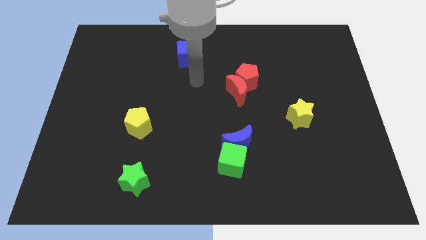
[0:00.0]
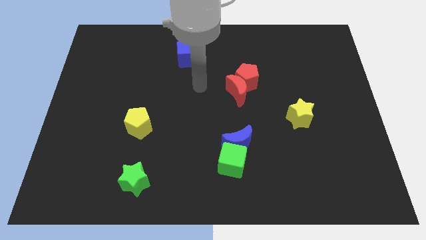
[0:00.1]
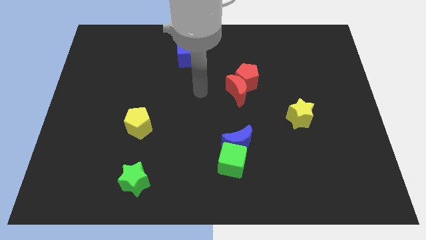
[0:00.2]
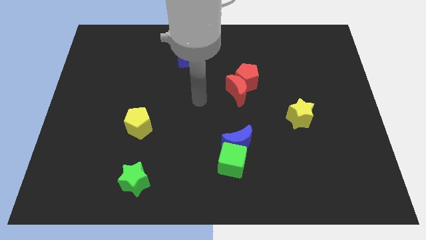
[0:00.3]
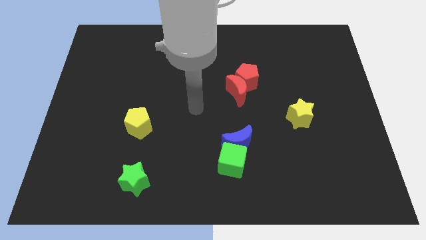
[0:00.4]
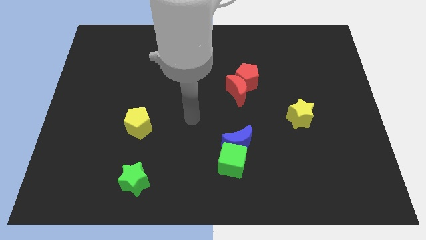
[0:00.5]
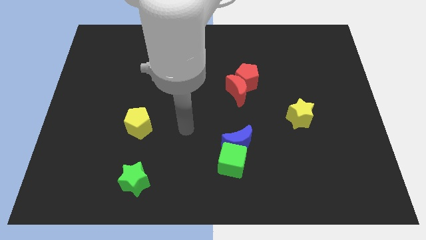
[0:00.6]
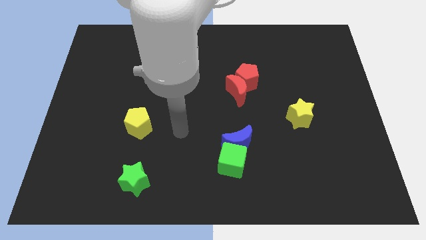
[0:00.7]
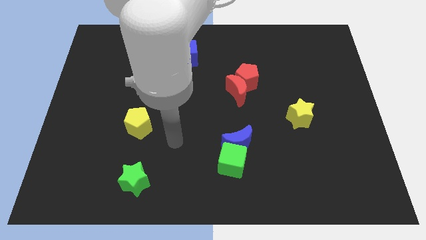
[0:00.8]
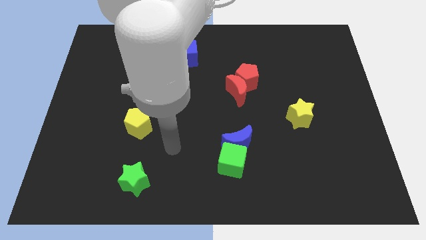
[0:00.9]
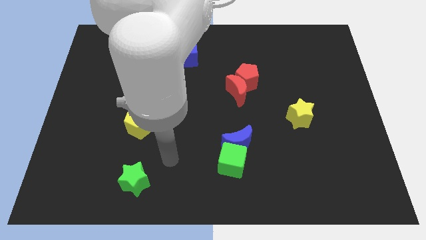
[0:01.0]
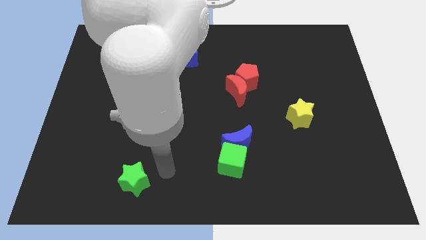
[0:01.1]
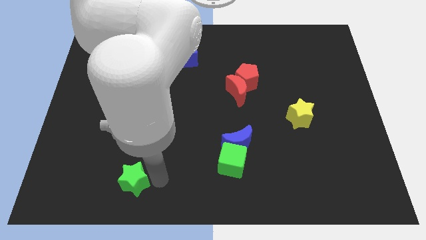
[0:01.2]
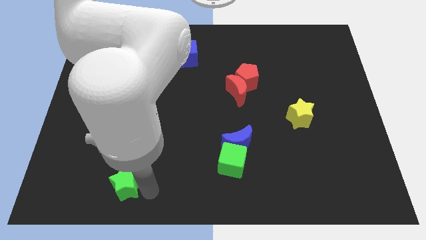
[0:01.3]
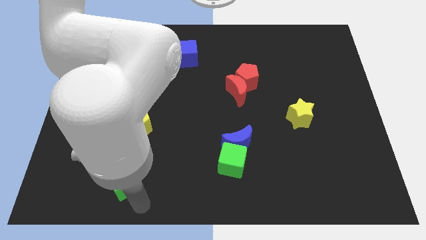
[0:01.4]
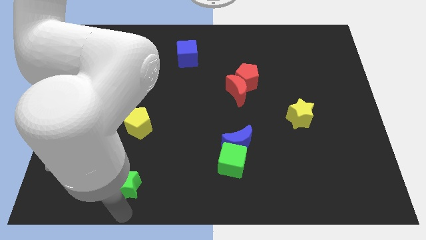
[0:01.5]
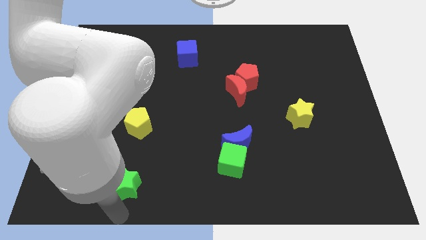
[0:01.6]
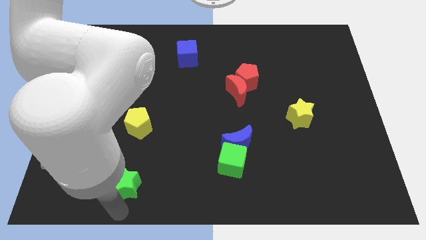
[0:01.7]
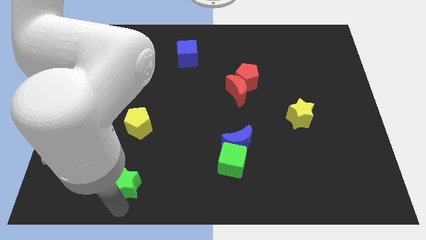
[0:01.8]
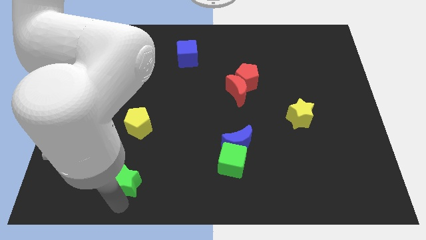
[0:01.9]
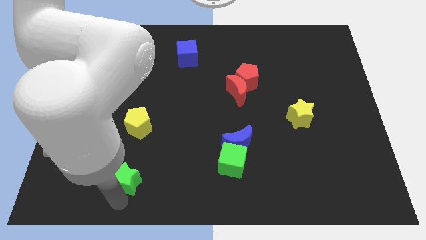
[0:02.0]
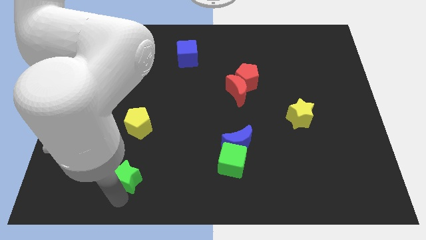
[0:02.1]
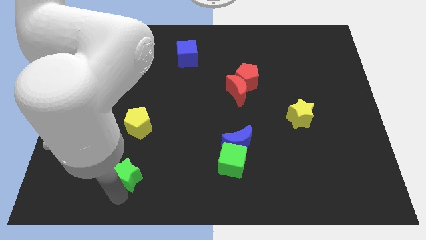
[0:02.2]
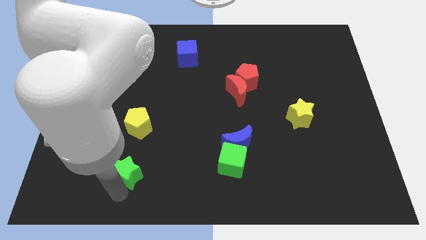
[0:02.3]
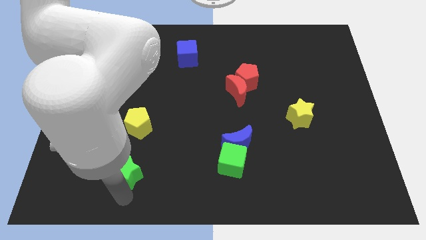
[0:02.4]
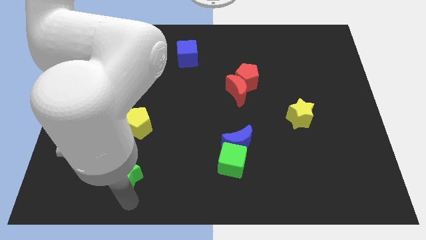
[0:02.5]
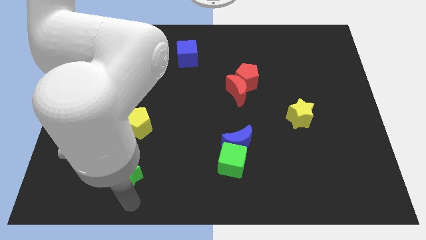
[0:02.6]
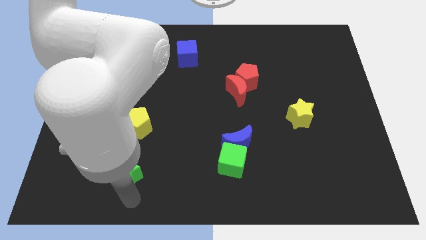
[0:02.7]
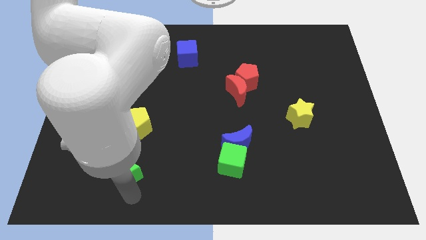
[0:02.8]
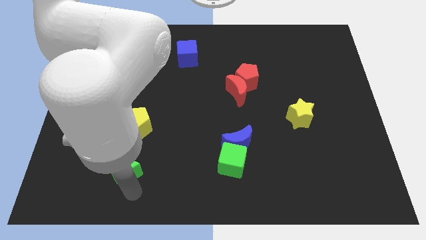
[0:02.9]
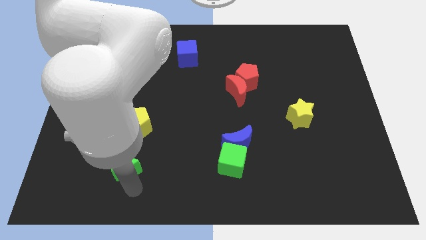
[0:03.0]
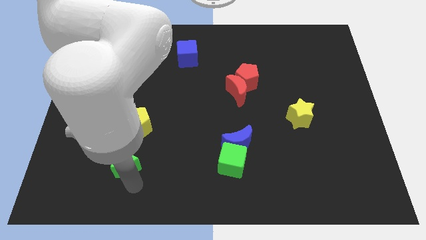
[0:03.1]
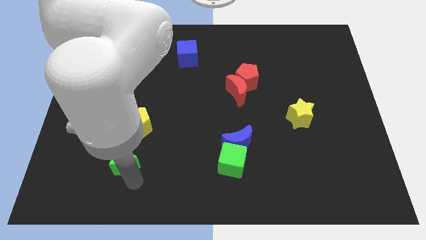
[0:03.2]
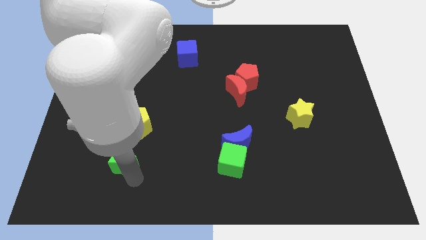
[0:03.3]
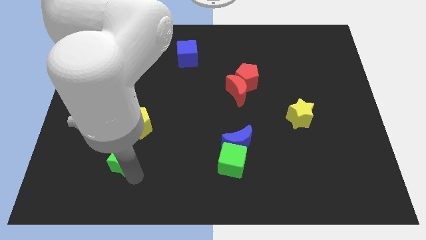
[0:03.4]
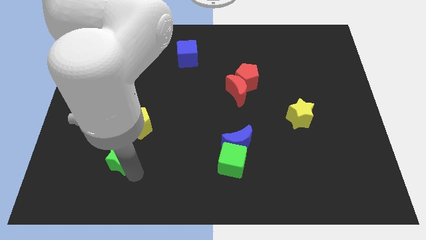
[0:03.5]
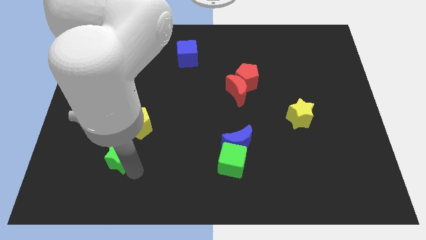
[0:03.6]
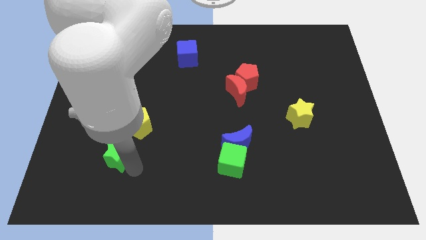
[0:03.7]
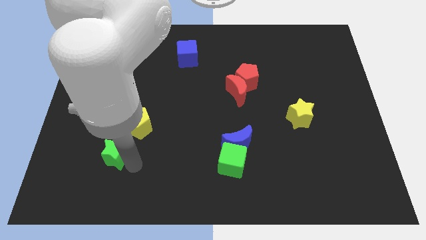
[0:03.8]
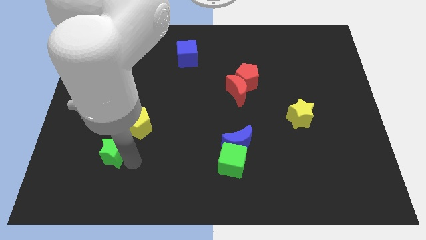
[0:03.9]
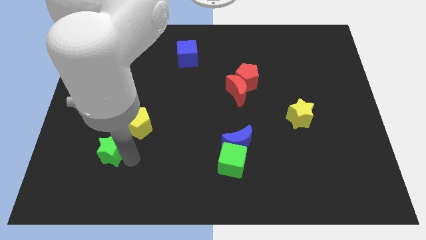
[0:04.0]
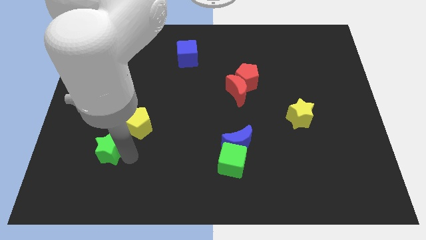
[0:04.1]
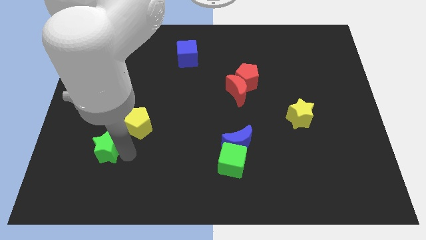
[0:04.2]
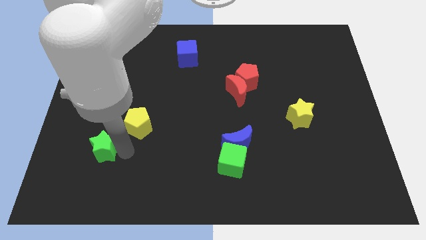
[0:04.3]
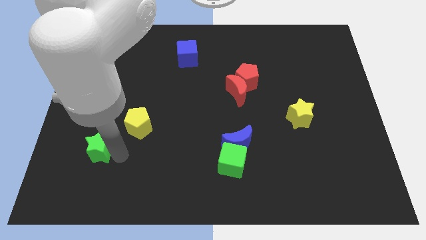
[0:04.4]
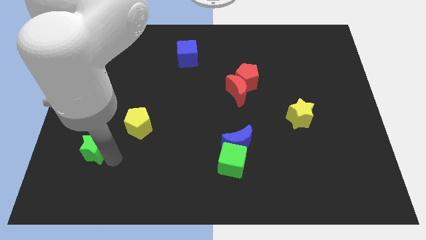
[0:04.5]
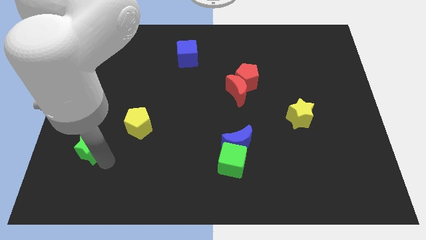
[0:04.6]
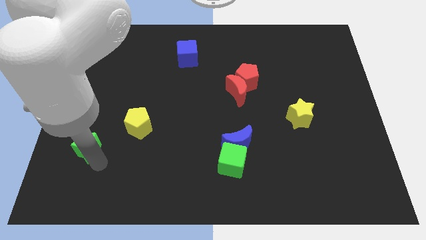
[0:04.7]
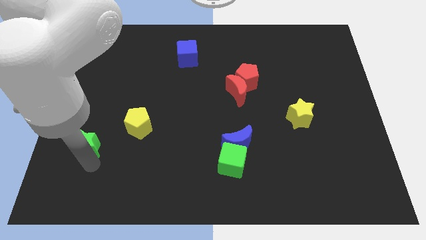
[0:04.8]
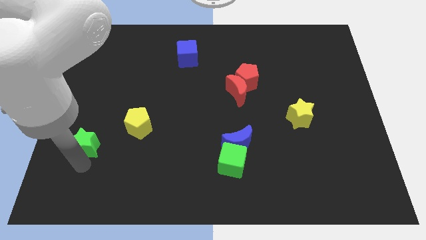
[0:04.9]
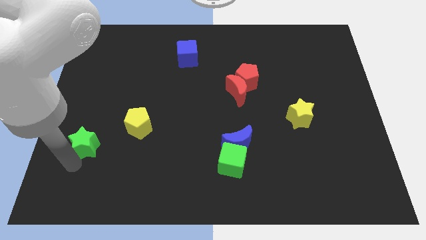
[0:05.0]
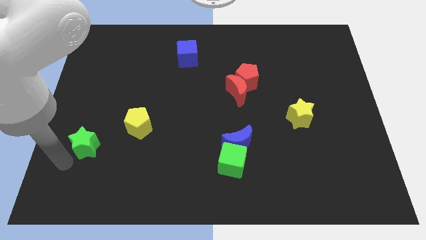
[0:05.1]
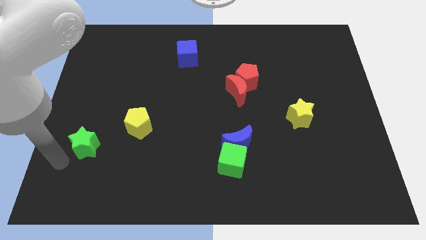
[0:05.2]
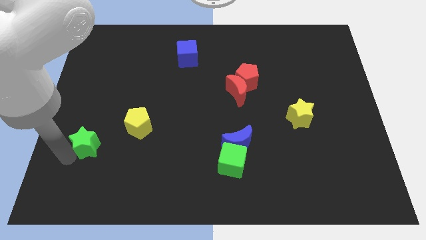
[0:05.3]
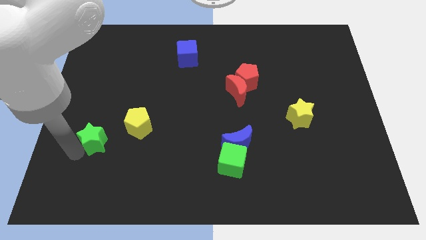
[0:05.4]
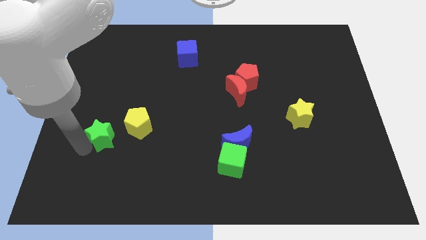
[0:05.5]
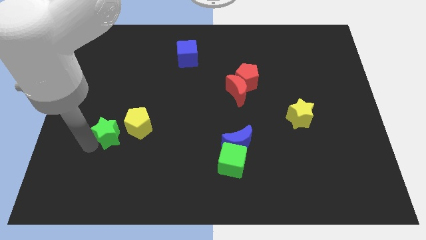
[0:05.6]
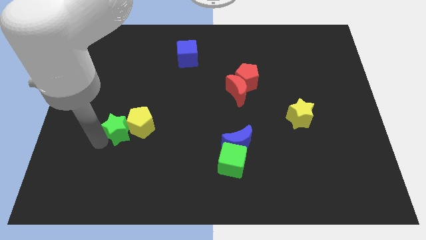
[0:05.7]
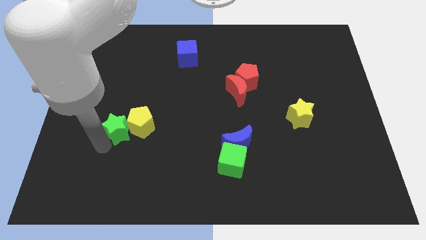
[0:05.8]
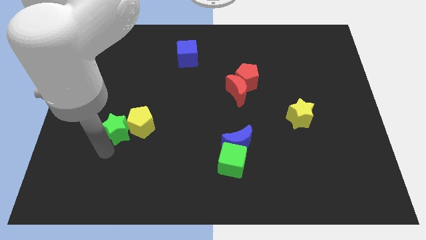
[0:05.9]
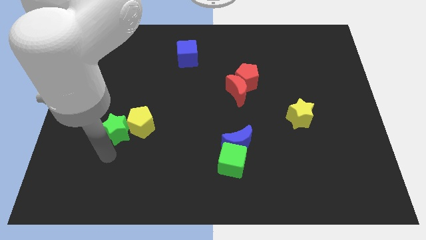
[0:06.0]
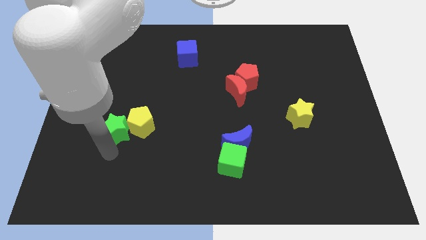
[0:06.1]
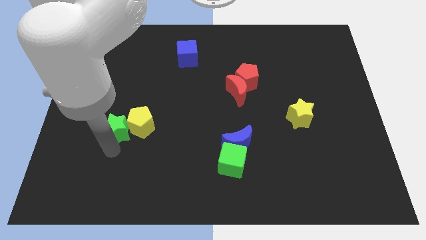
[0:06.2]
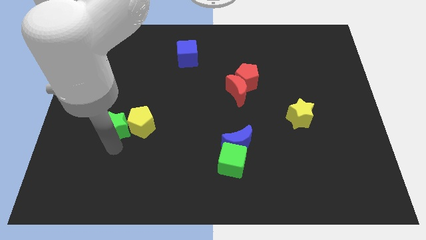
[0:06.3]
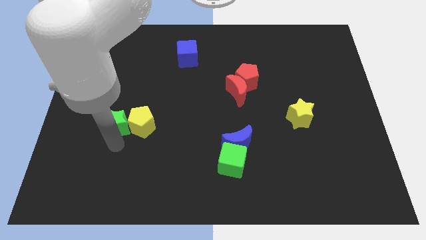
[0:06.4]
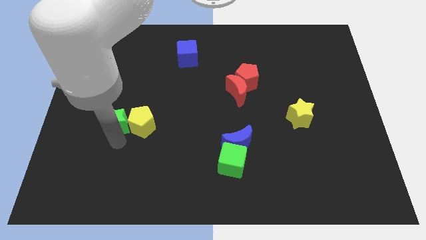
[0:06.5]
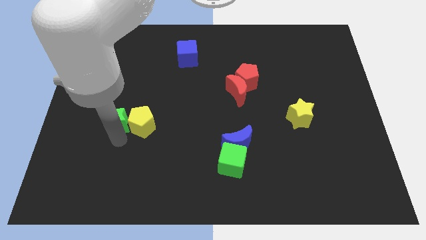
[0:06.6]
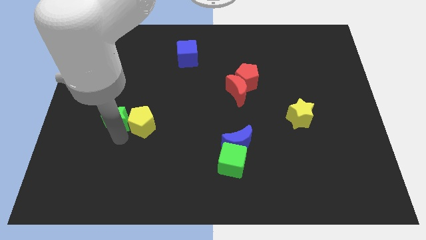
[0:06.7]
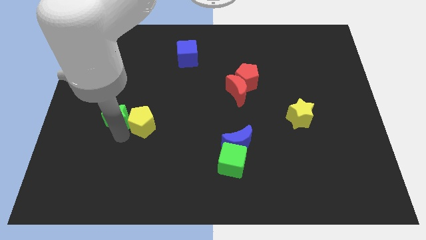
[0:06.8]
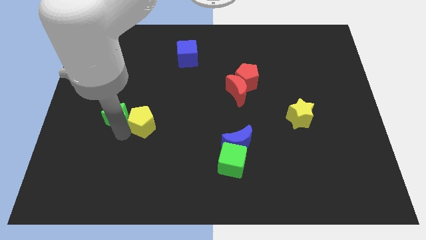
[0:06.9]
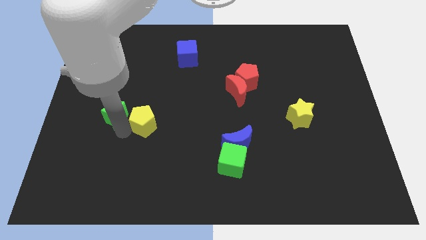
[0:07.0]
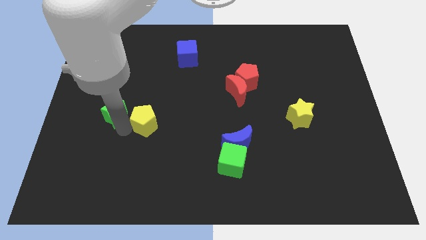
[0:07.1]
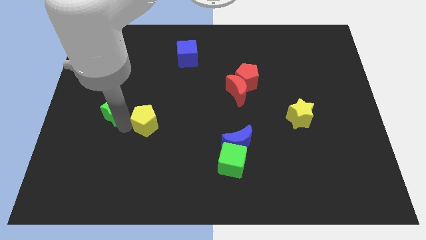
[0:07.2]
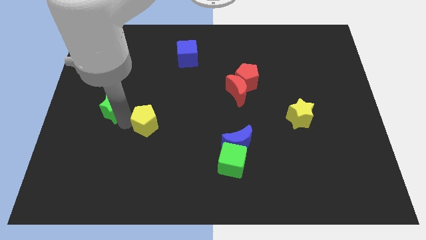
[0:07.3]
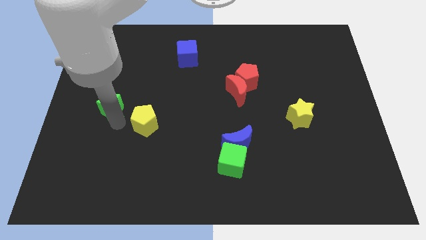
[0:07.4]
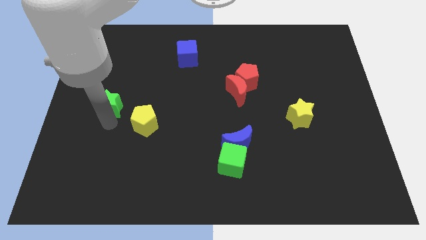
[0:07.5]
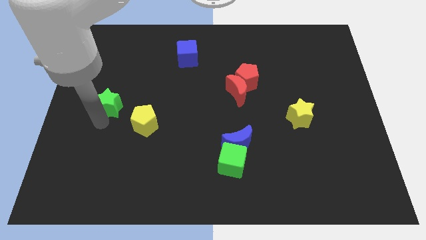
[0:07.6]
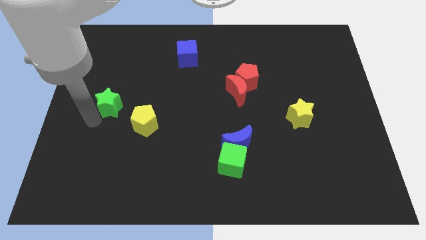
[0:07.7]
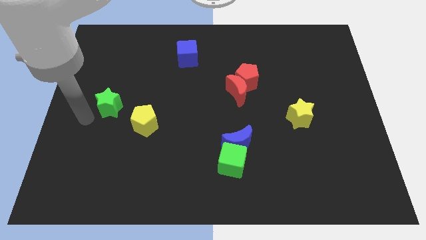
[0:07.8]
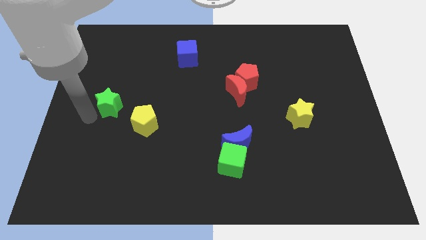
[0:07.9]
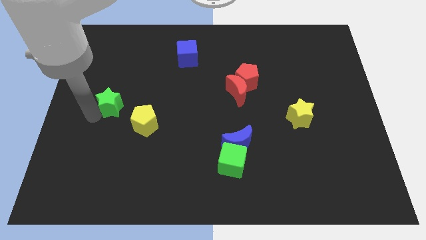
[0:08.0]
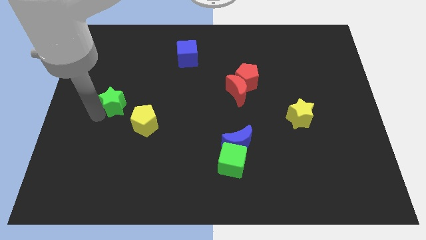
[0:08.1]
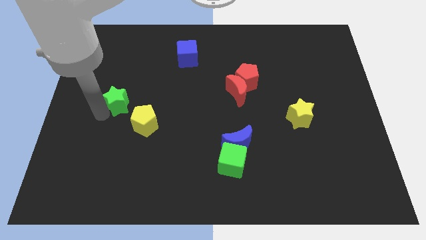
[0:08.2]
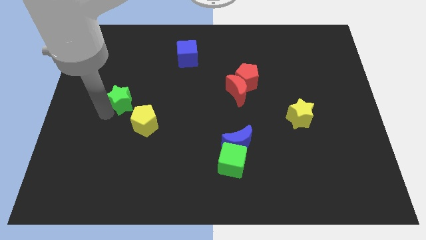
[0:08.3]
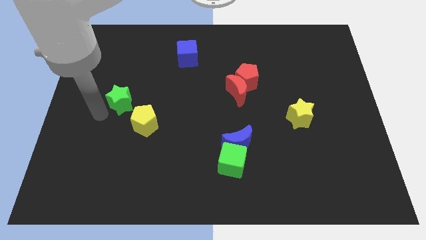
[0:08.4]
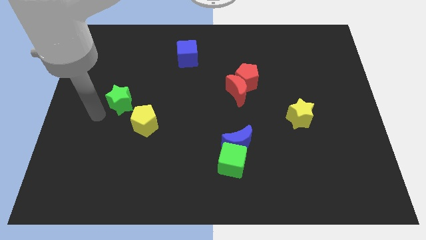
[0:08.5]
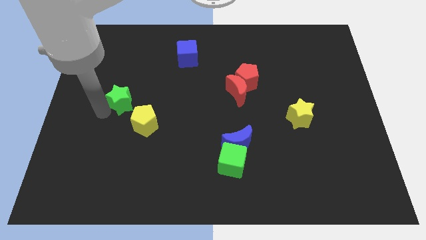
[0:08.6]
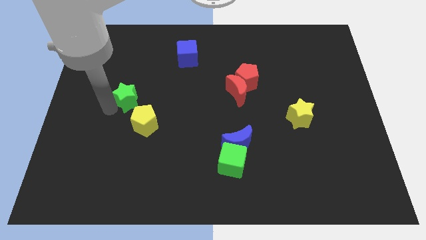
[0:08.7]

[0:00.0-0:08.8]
slide the green star to the top side of the yellow pentagon
